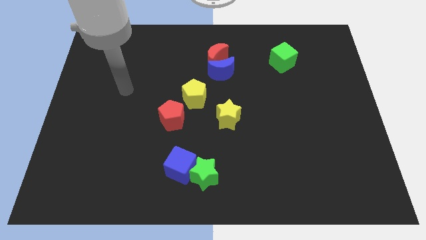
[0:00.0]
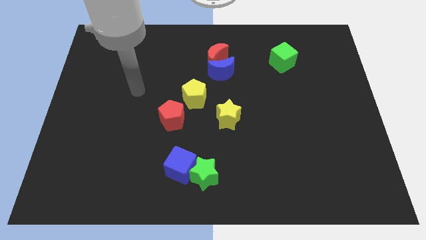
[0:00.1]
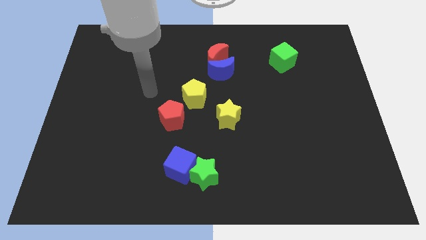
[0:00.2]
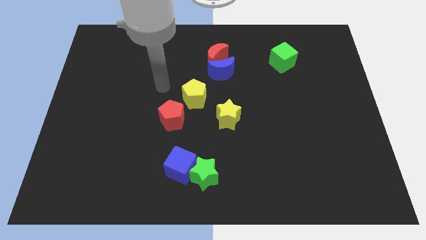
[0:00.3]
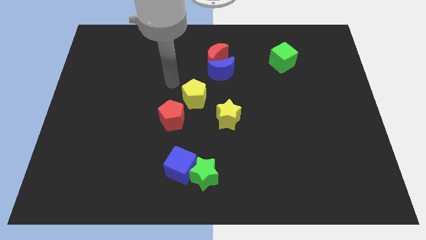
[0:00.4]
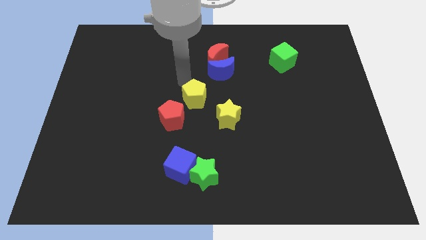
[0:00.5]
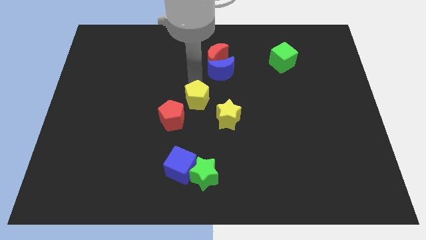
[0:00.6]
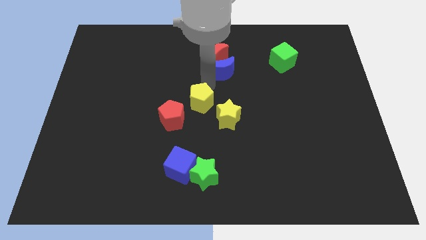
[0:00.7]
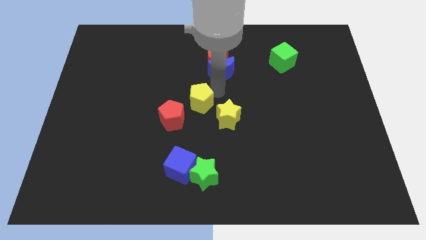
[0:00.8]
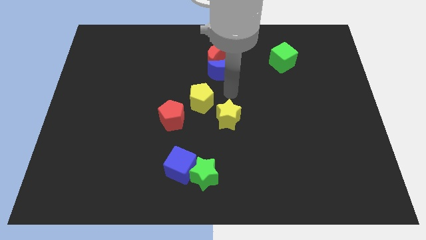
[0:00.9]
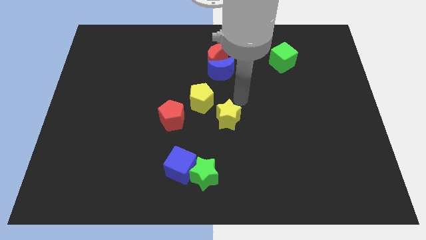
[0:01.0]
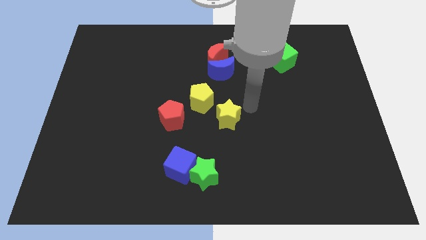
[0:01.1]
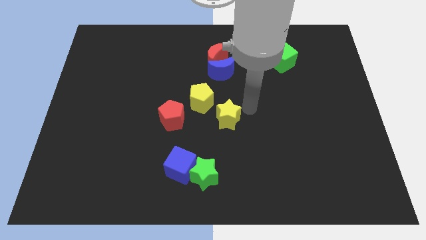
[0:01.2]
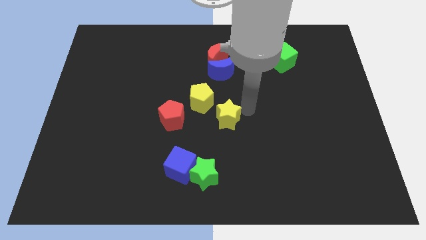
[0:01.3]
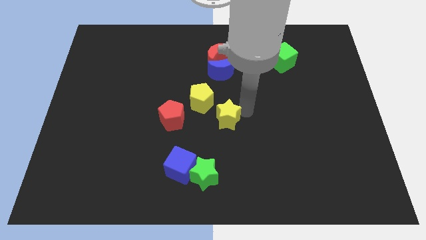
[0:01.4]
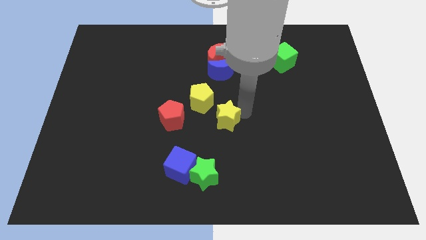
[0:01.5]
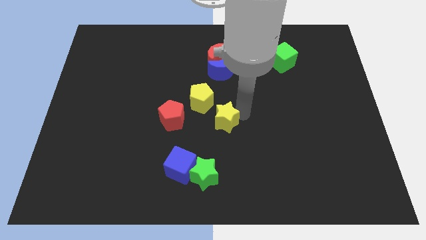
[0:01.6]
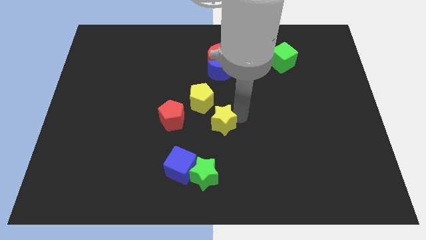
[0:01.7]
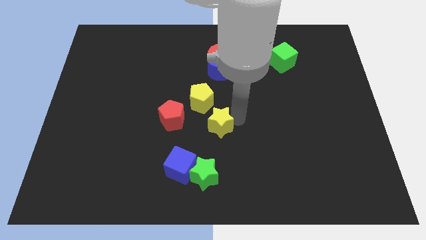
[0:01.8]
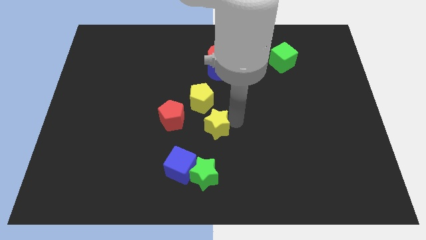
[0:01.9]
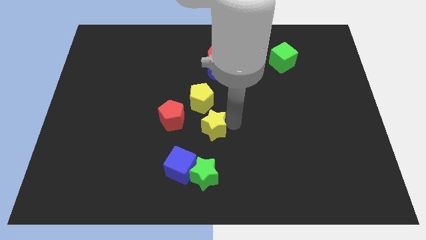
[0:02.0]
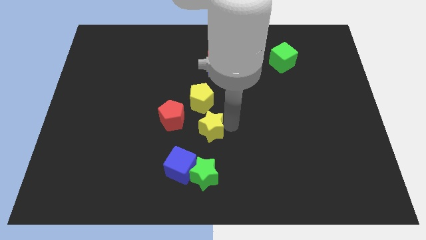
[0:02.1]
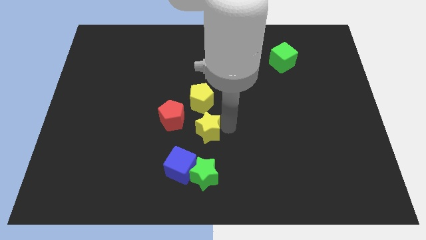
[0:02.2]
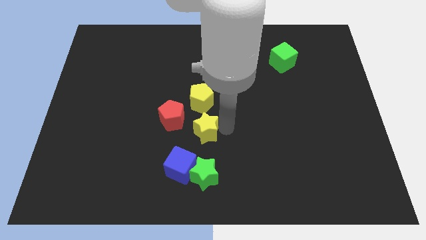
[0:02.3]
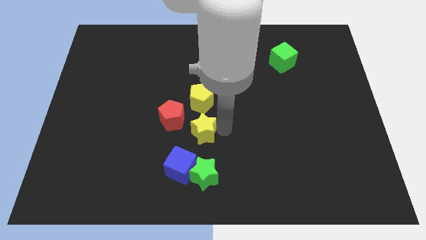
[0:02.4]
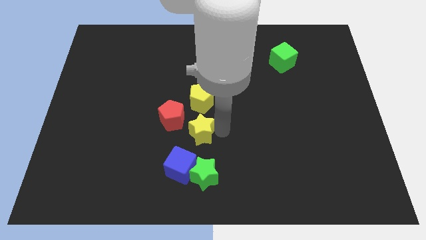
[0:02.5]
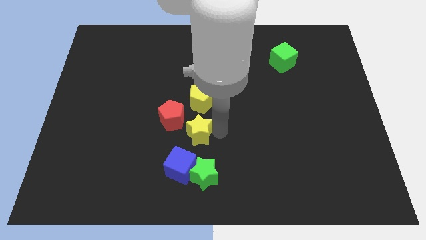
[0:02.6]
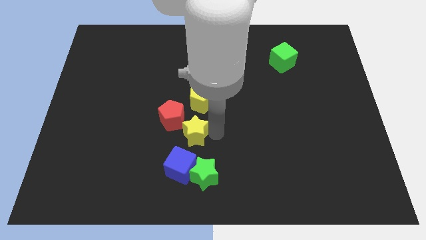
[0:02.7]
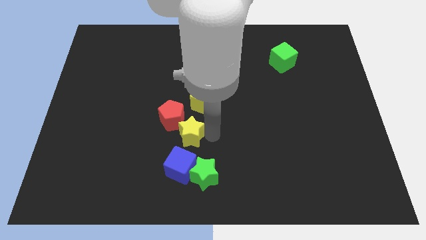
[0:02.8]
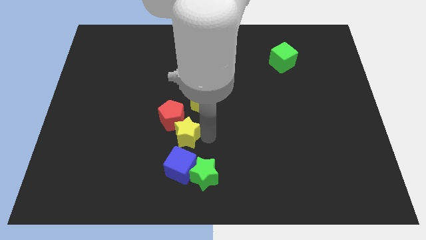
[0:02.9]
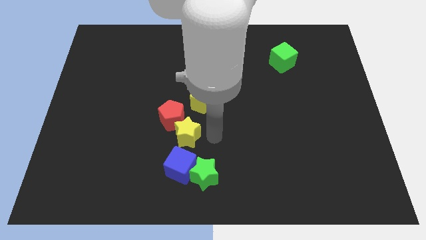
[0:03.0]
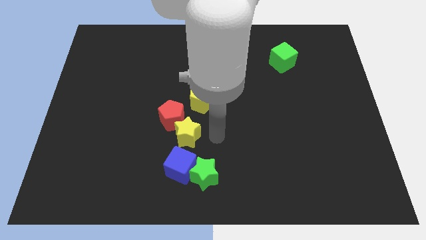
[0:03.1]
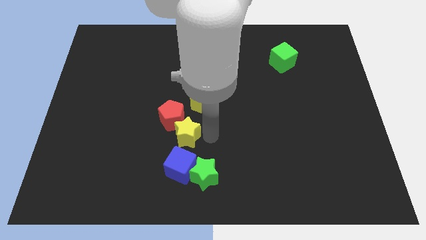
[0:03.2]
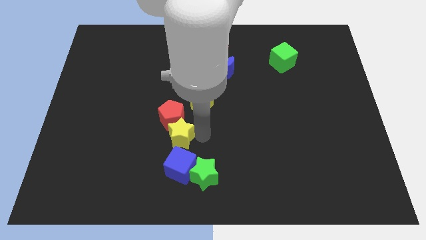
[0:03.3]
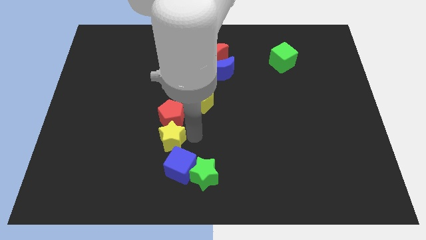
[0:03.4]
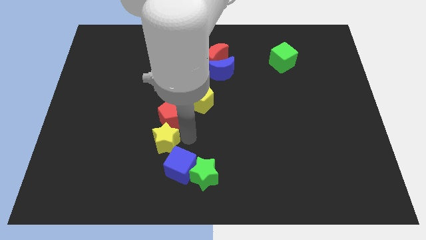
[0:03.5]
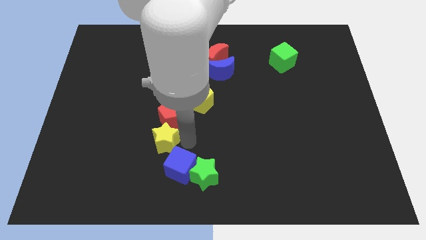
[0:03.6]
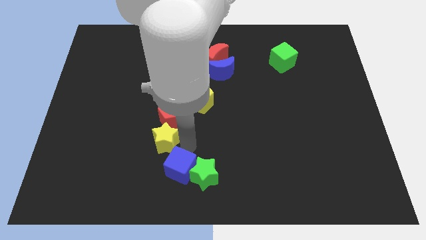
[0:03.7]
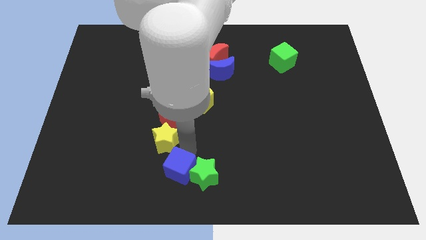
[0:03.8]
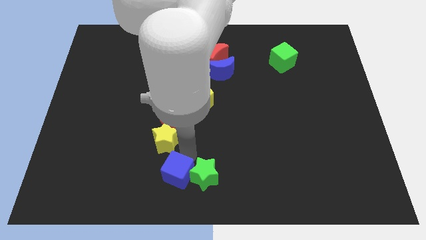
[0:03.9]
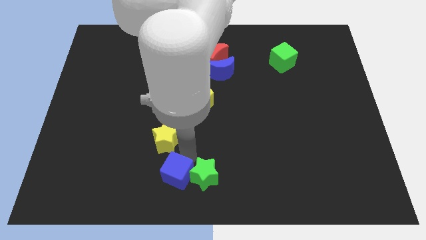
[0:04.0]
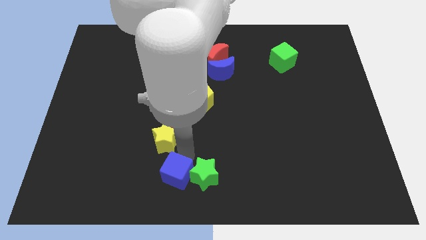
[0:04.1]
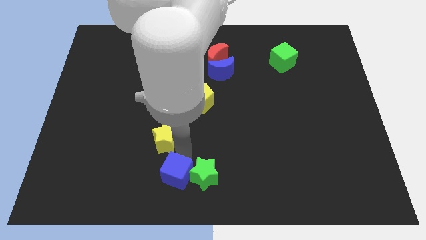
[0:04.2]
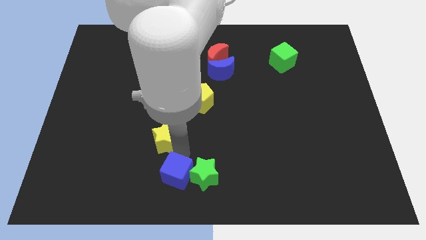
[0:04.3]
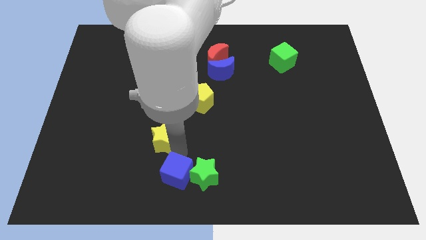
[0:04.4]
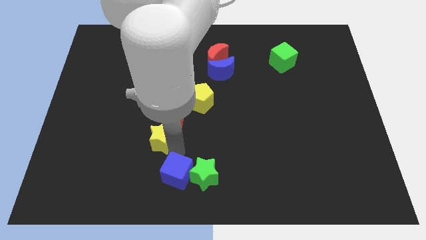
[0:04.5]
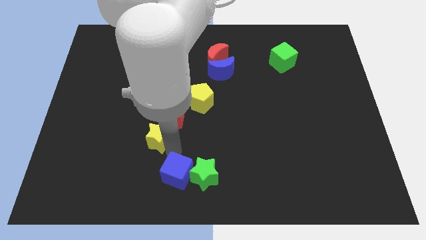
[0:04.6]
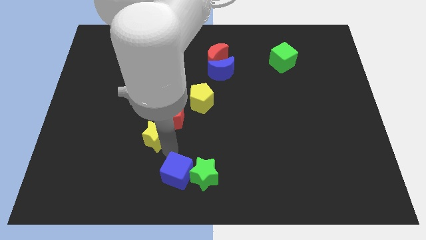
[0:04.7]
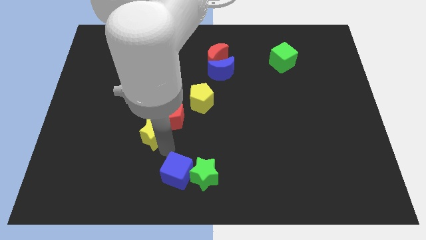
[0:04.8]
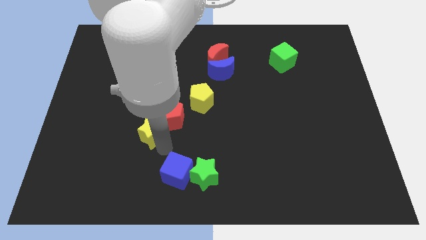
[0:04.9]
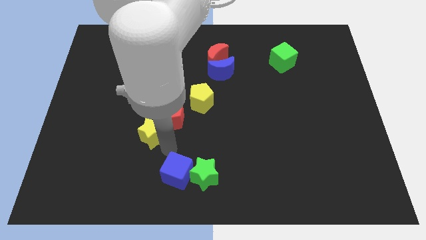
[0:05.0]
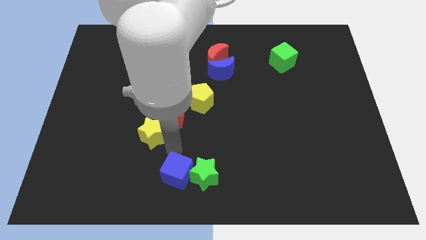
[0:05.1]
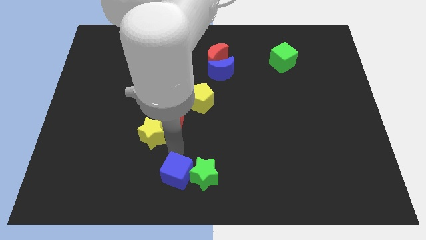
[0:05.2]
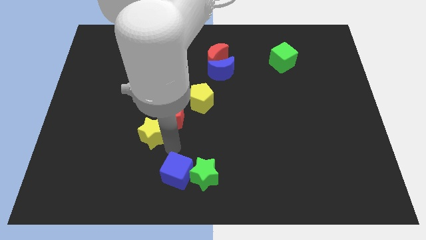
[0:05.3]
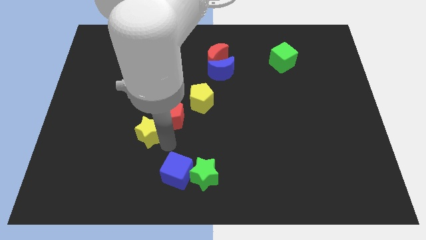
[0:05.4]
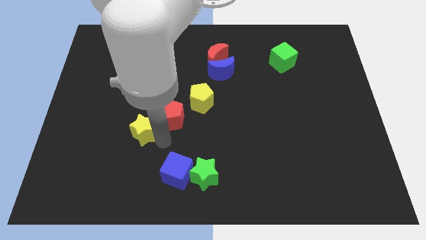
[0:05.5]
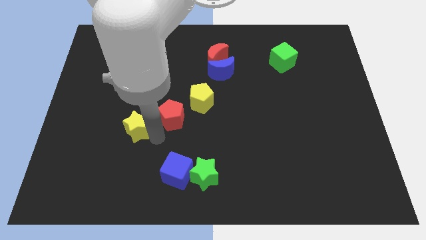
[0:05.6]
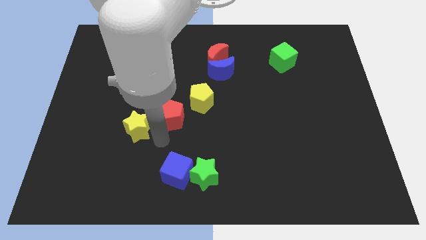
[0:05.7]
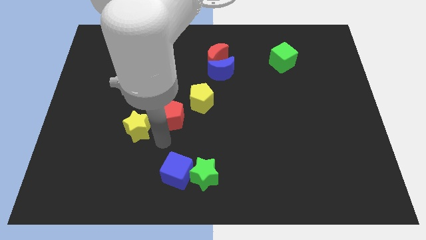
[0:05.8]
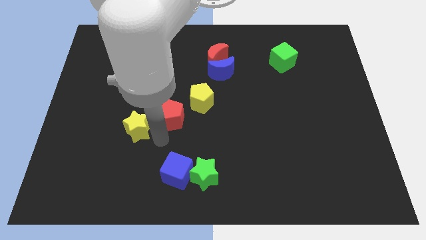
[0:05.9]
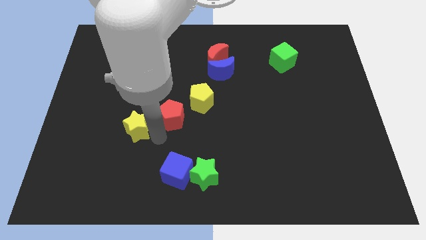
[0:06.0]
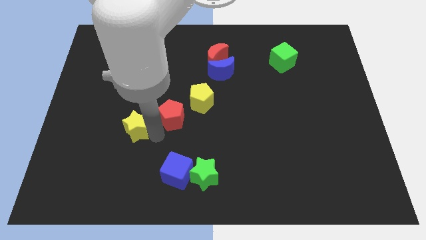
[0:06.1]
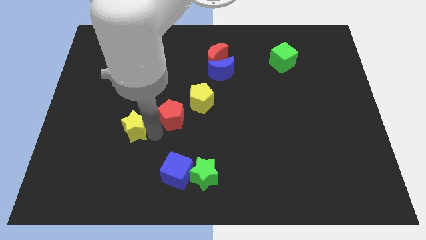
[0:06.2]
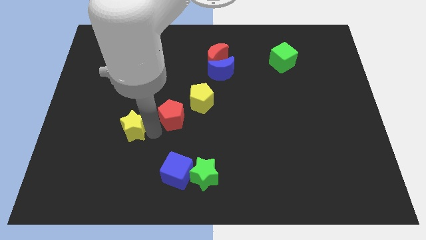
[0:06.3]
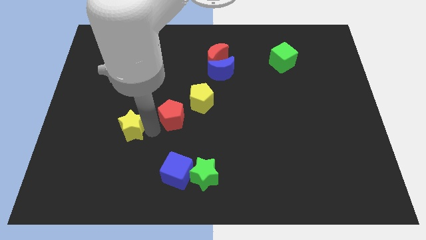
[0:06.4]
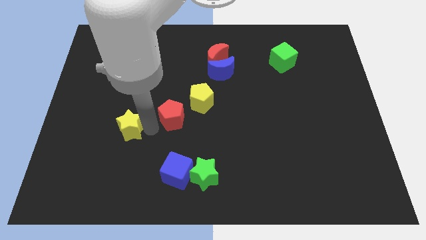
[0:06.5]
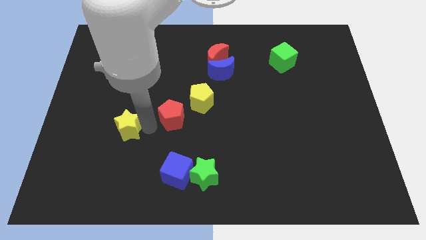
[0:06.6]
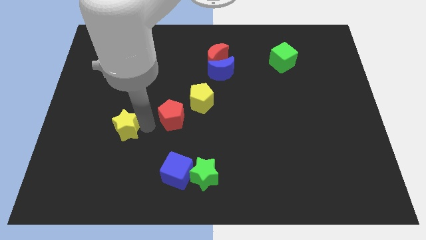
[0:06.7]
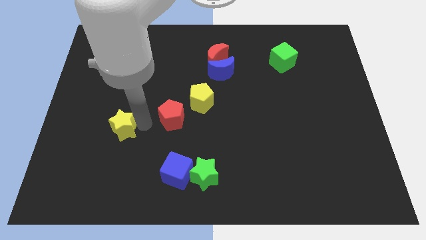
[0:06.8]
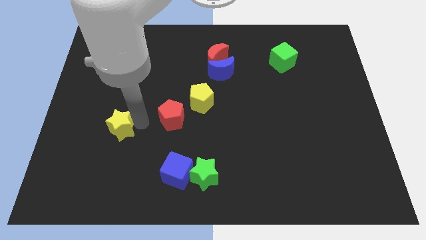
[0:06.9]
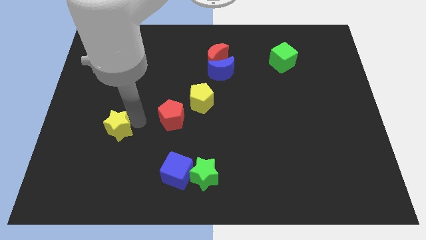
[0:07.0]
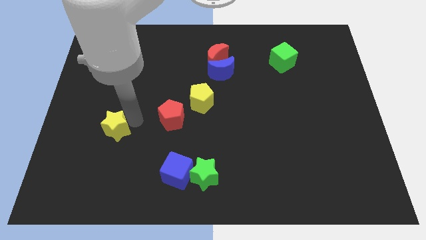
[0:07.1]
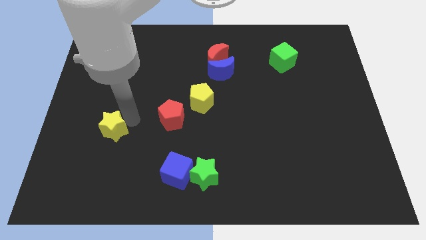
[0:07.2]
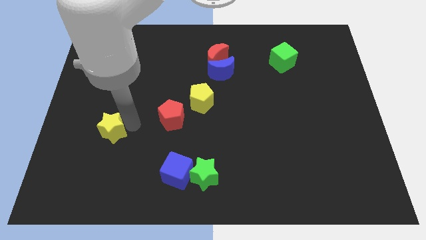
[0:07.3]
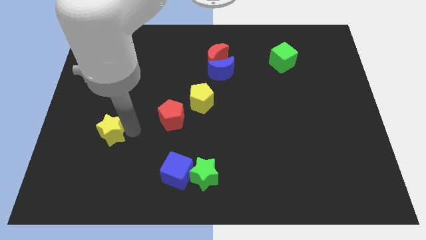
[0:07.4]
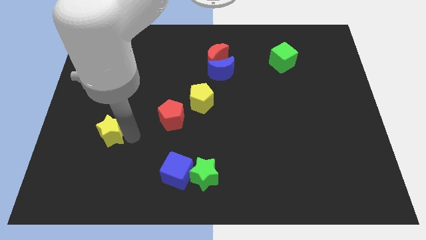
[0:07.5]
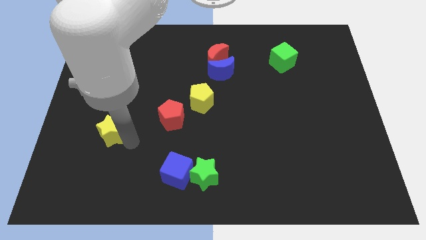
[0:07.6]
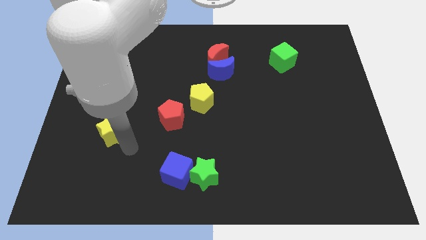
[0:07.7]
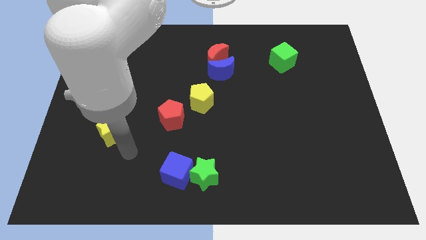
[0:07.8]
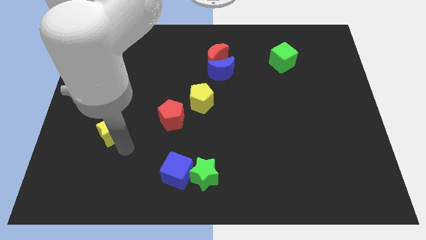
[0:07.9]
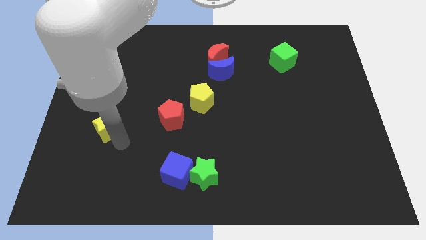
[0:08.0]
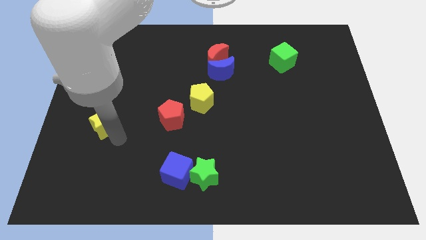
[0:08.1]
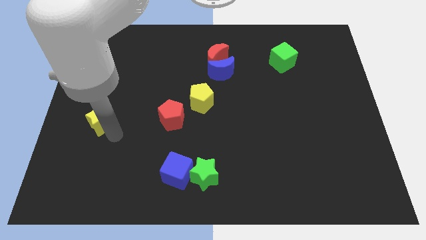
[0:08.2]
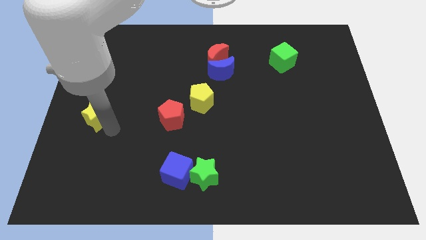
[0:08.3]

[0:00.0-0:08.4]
push the yellow star to the left side
